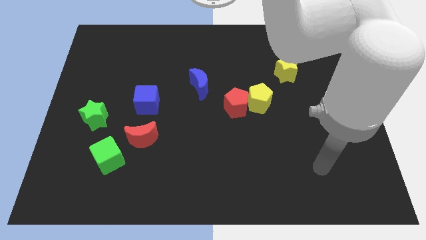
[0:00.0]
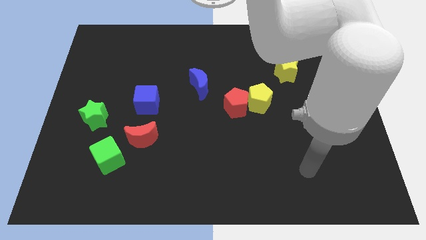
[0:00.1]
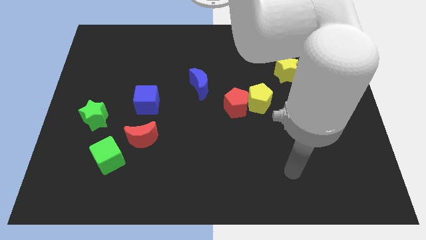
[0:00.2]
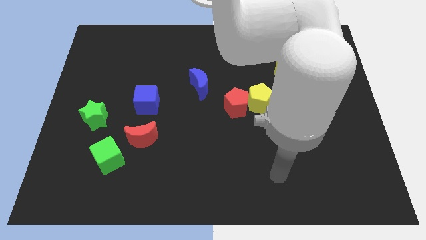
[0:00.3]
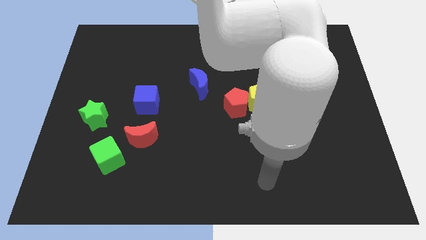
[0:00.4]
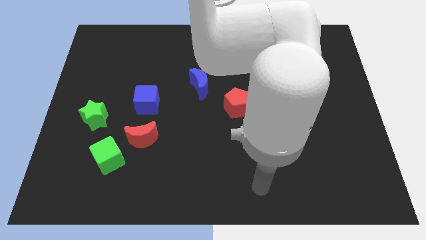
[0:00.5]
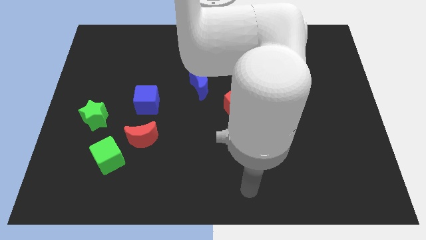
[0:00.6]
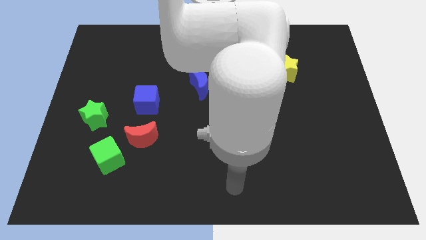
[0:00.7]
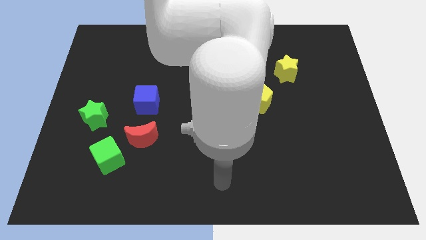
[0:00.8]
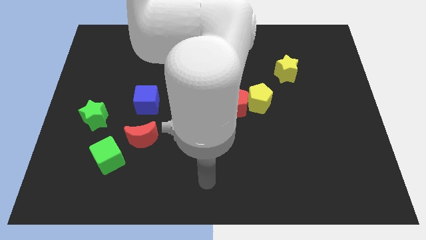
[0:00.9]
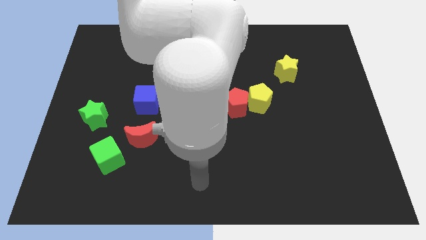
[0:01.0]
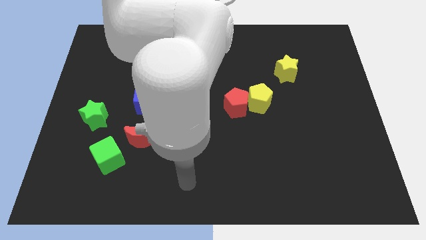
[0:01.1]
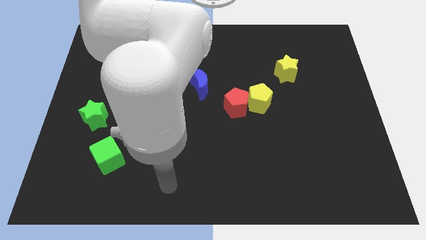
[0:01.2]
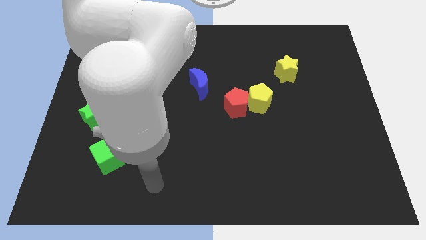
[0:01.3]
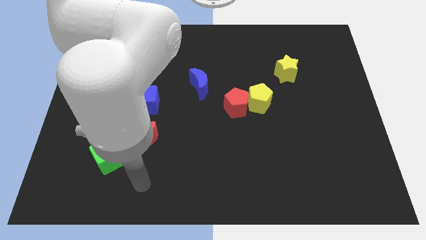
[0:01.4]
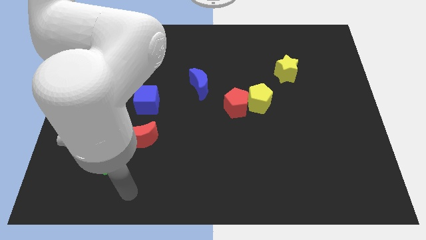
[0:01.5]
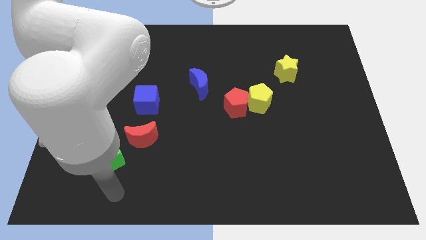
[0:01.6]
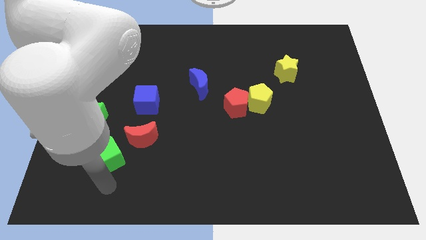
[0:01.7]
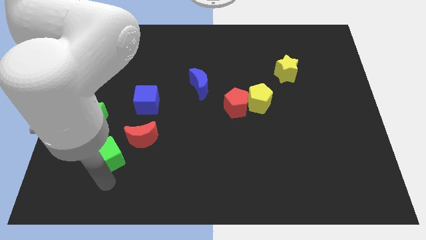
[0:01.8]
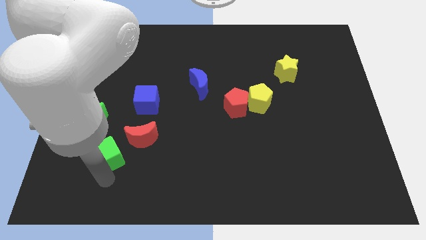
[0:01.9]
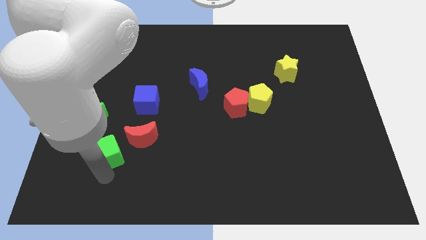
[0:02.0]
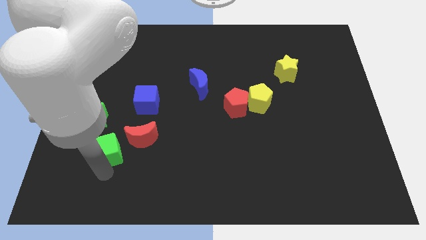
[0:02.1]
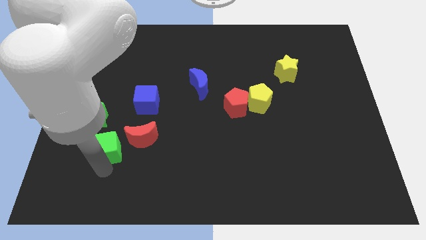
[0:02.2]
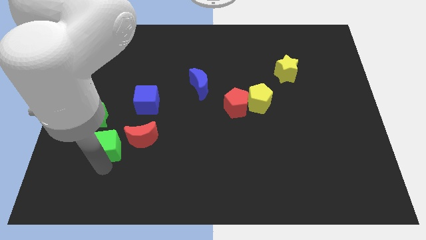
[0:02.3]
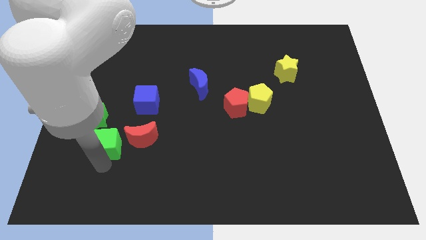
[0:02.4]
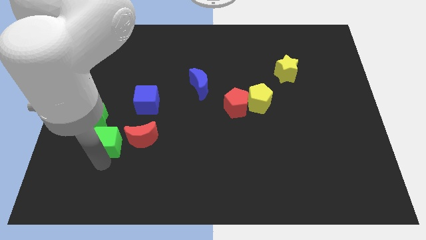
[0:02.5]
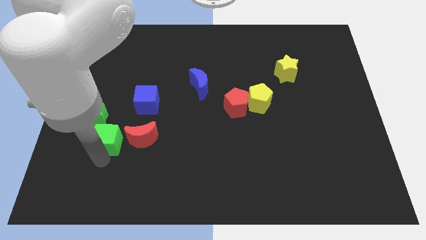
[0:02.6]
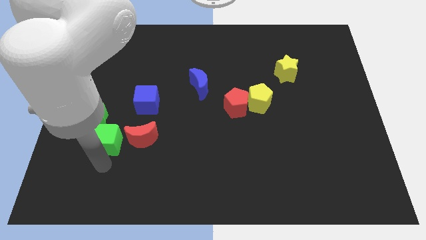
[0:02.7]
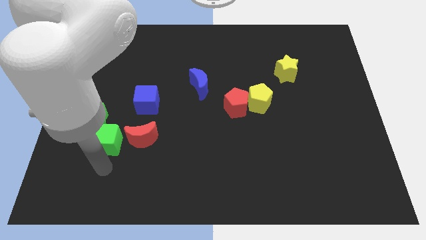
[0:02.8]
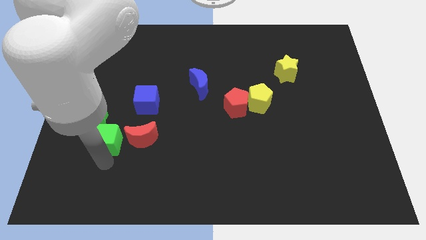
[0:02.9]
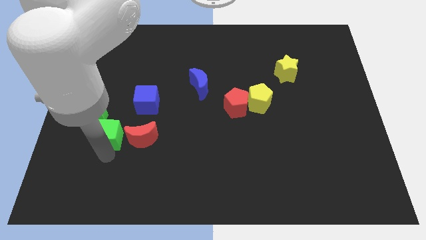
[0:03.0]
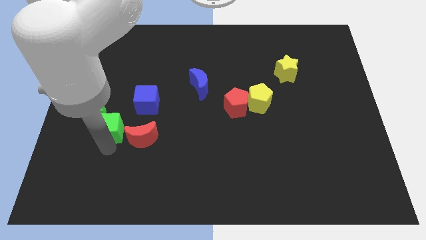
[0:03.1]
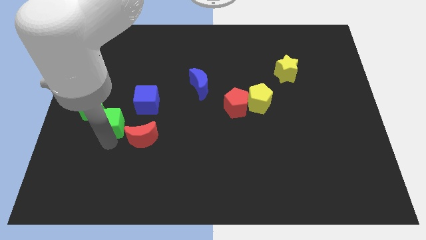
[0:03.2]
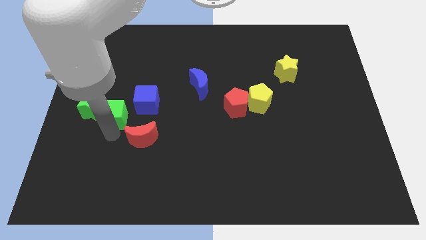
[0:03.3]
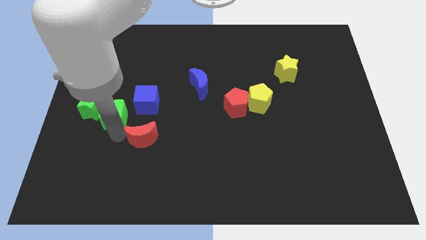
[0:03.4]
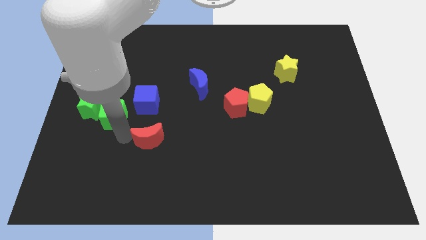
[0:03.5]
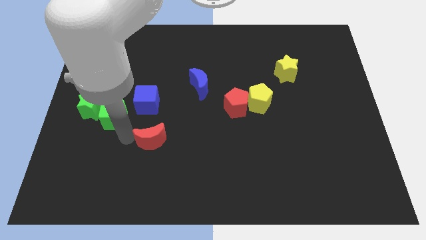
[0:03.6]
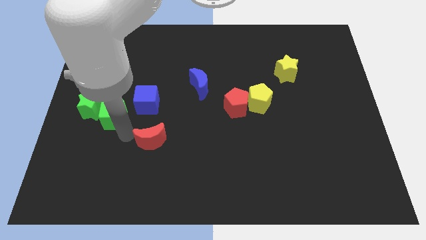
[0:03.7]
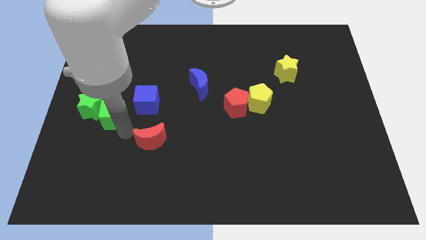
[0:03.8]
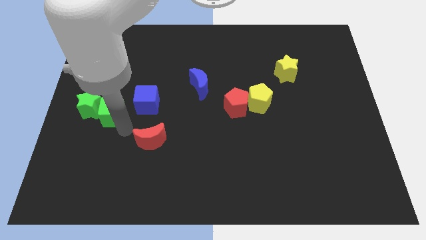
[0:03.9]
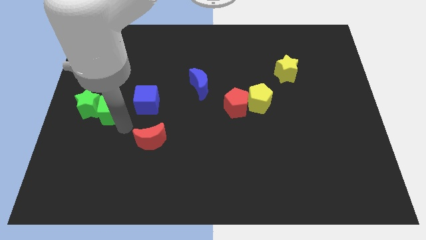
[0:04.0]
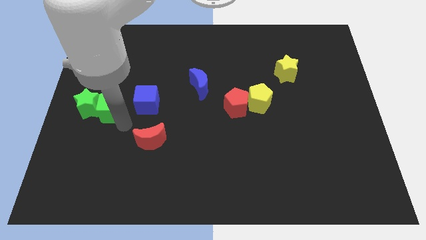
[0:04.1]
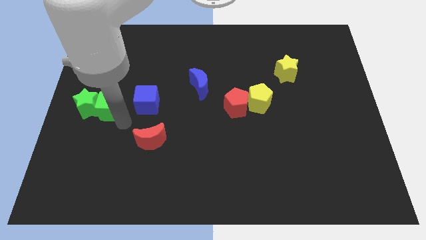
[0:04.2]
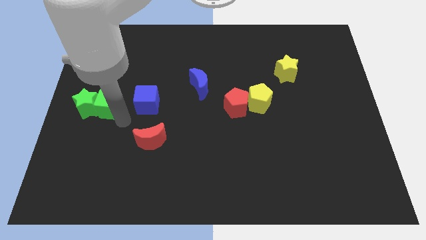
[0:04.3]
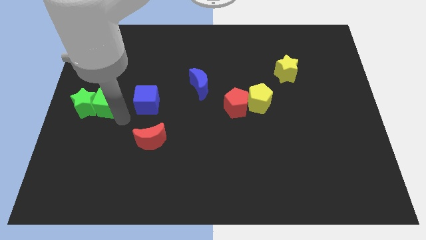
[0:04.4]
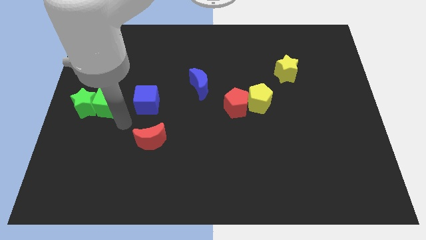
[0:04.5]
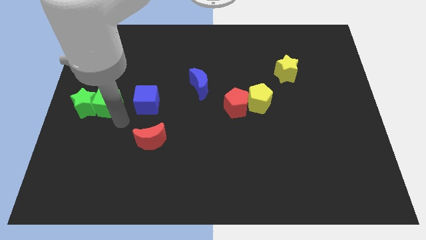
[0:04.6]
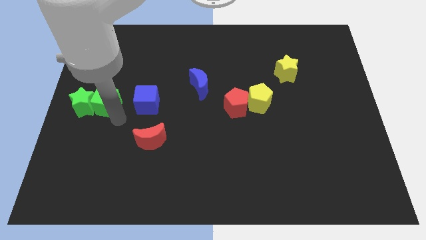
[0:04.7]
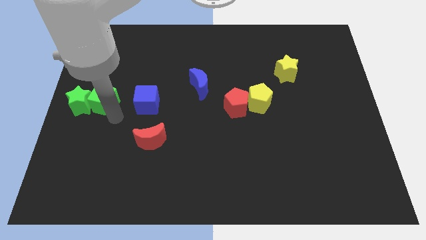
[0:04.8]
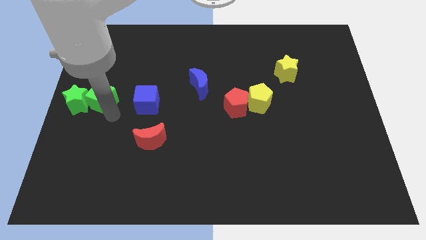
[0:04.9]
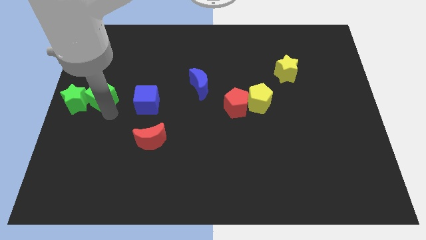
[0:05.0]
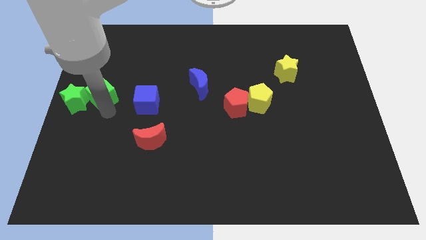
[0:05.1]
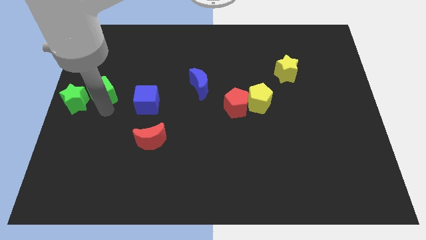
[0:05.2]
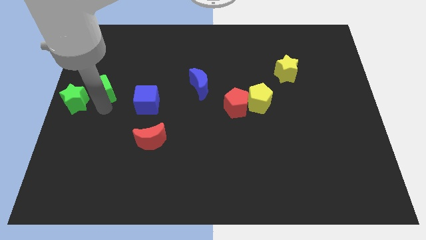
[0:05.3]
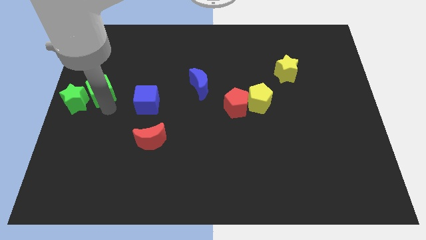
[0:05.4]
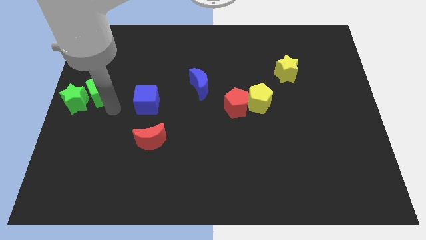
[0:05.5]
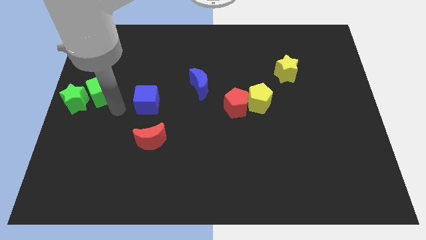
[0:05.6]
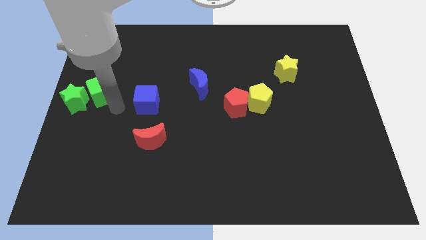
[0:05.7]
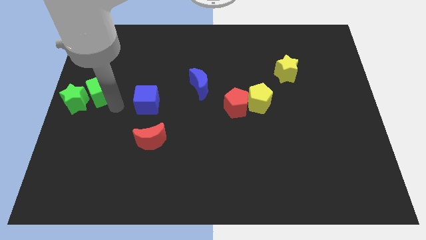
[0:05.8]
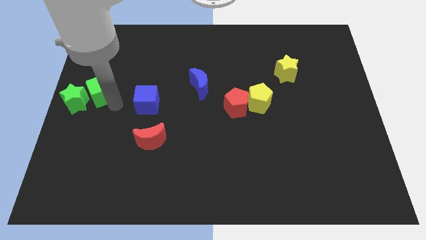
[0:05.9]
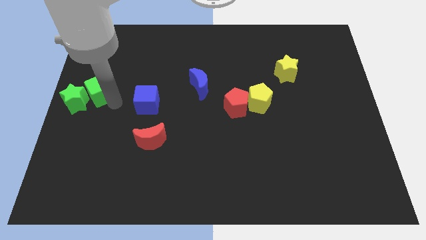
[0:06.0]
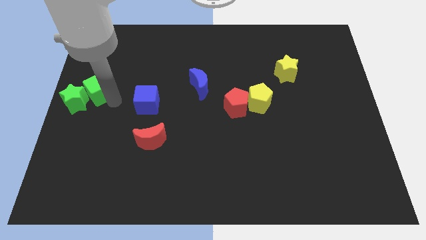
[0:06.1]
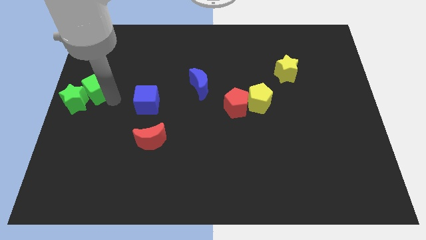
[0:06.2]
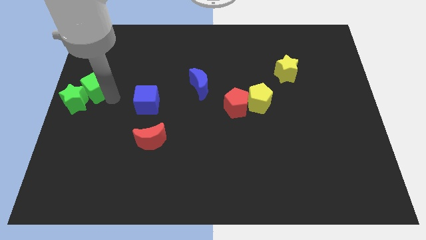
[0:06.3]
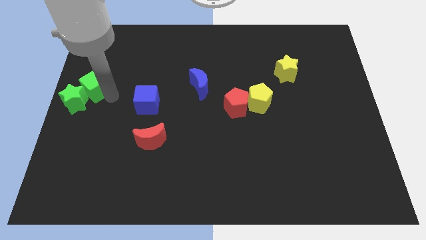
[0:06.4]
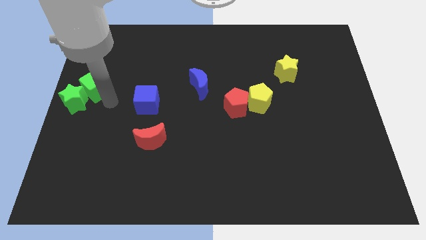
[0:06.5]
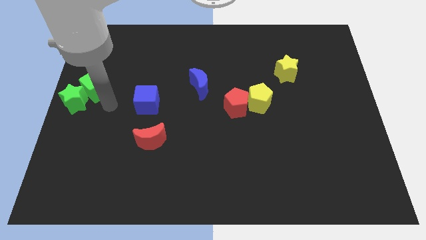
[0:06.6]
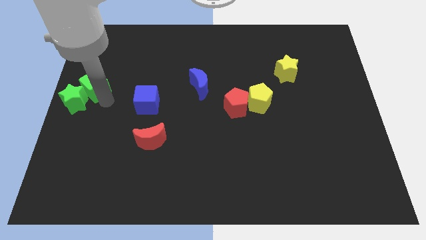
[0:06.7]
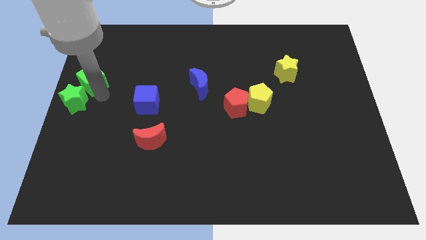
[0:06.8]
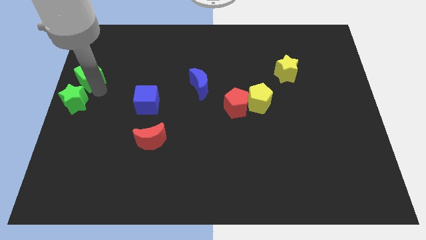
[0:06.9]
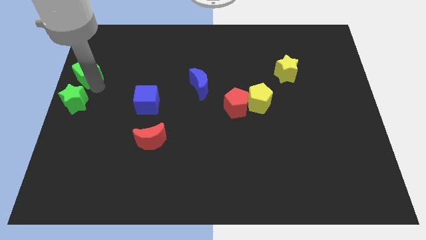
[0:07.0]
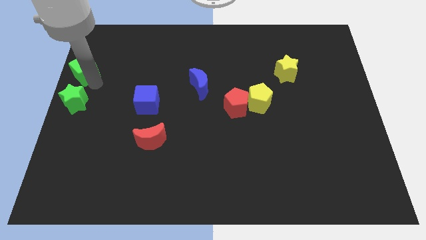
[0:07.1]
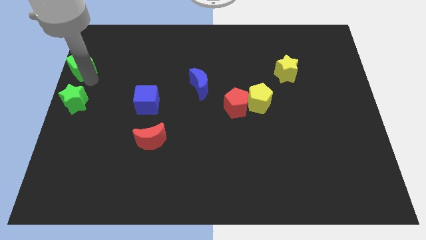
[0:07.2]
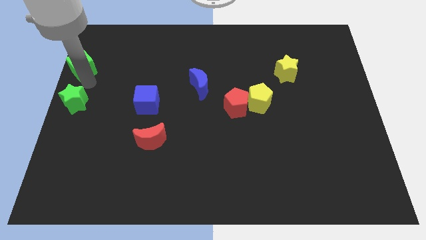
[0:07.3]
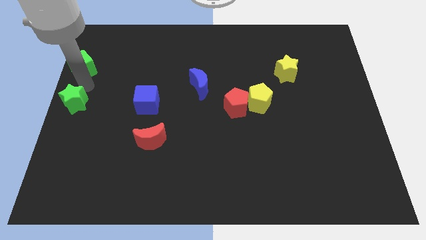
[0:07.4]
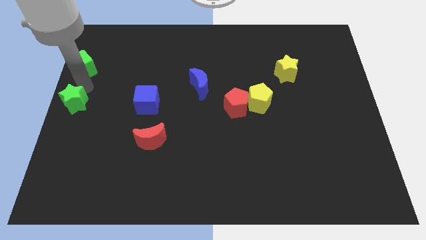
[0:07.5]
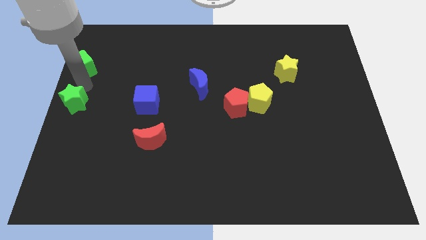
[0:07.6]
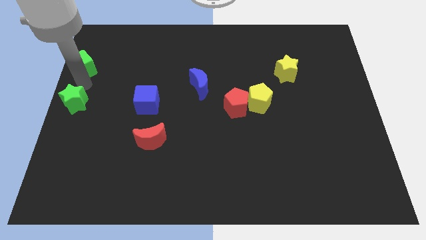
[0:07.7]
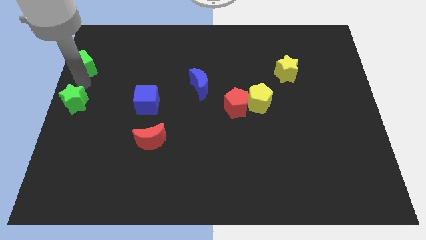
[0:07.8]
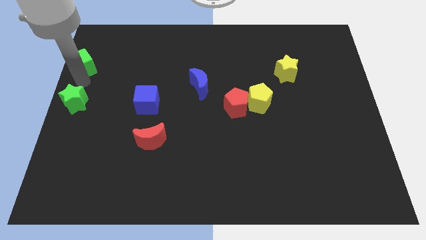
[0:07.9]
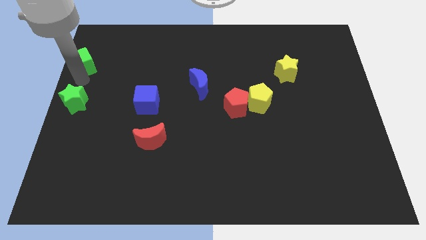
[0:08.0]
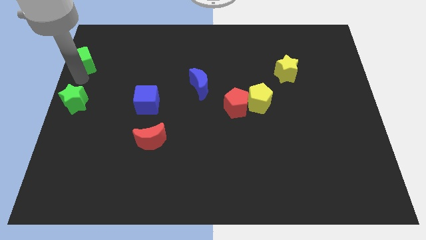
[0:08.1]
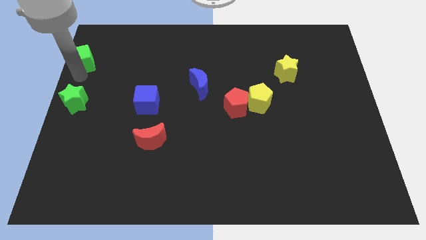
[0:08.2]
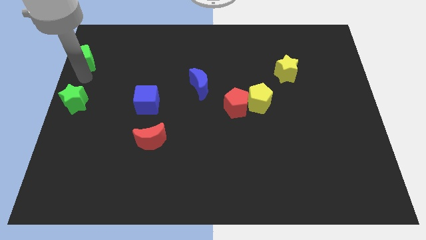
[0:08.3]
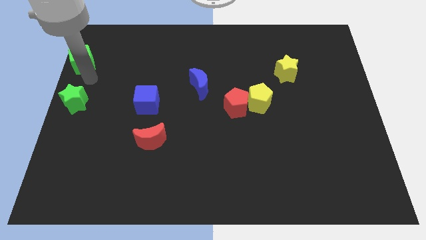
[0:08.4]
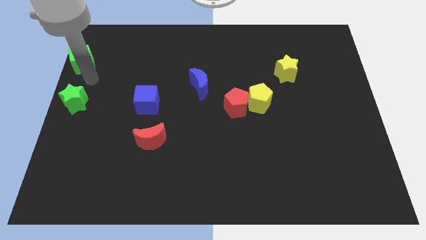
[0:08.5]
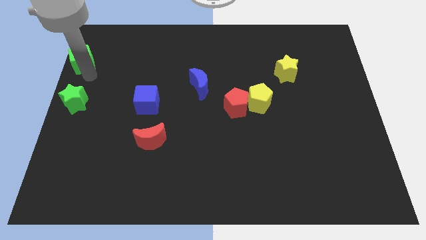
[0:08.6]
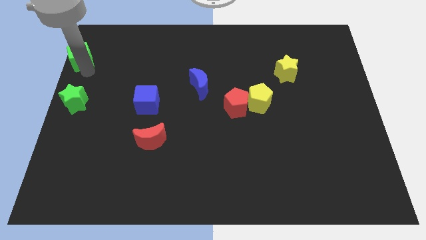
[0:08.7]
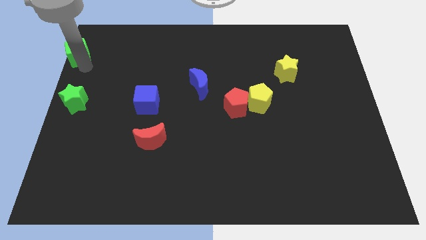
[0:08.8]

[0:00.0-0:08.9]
push the green cube to the top left of the board
